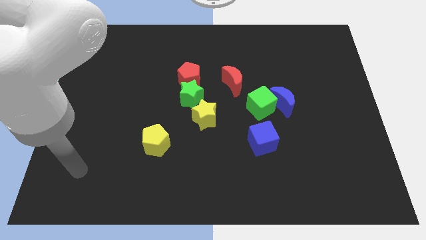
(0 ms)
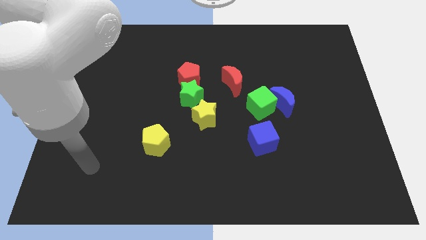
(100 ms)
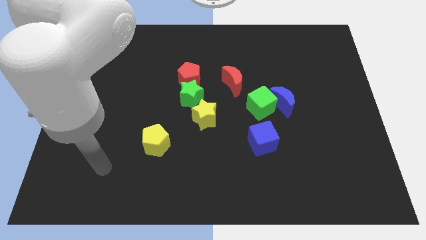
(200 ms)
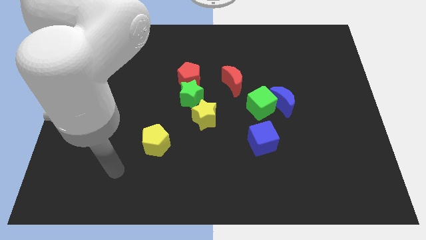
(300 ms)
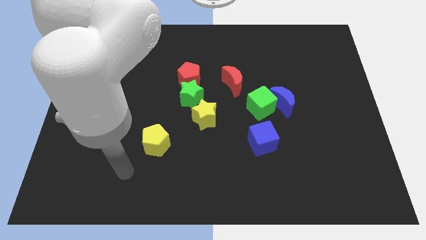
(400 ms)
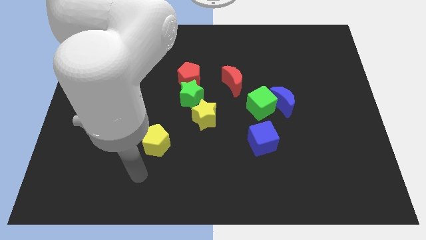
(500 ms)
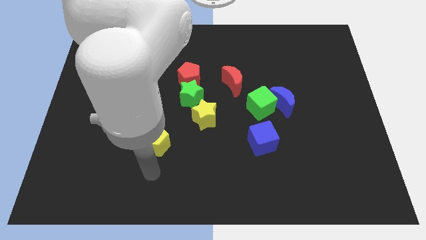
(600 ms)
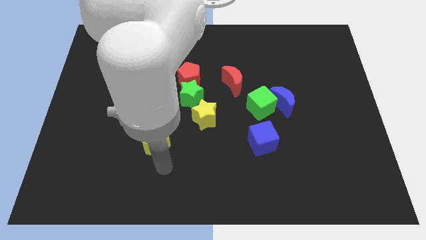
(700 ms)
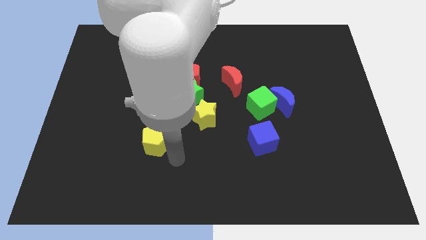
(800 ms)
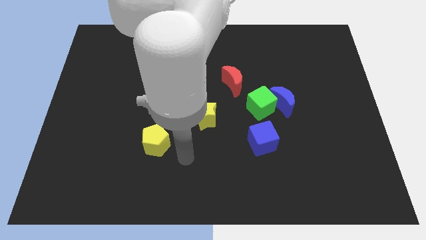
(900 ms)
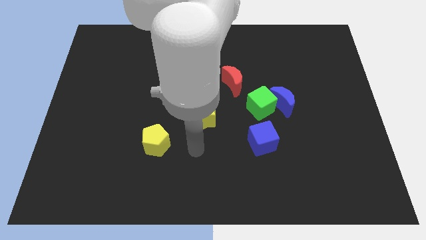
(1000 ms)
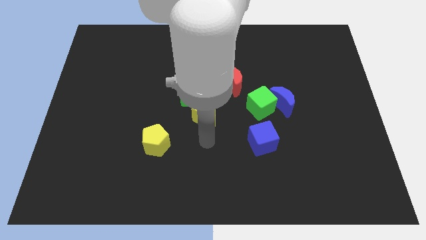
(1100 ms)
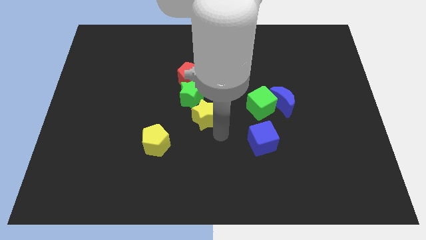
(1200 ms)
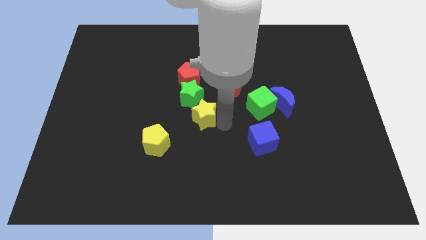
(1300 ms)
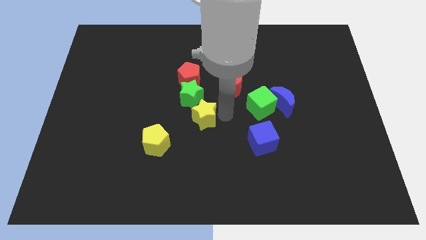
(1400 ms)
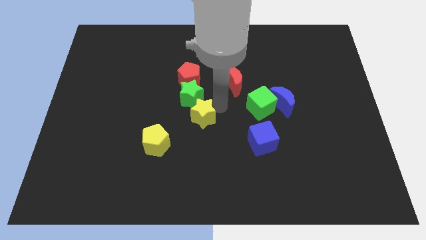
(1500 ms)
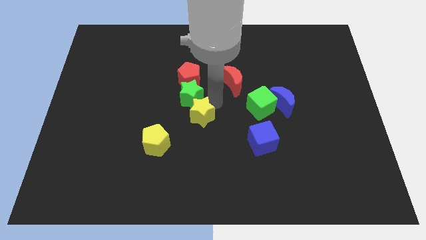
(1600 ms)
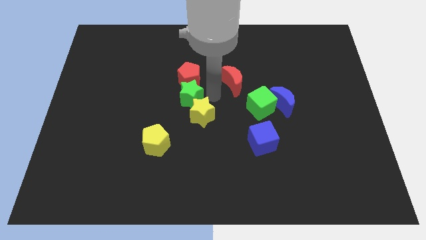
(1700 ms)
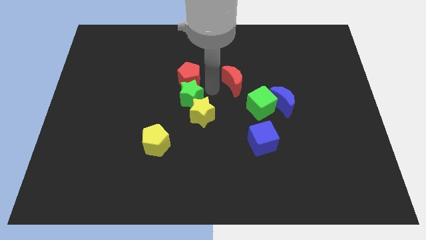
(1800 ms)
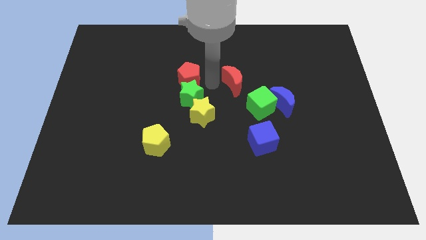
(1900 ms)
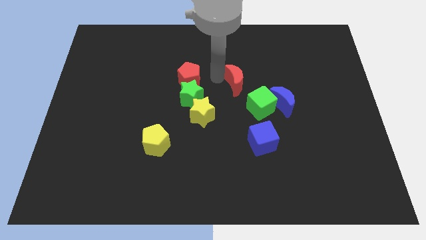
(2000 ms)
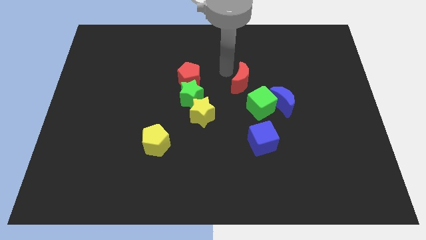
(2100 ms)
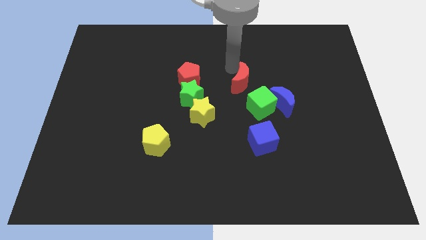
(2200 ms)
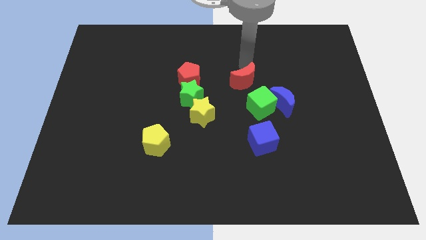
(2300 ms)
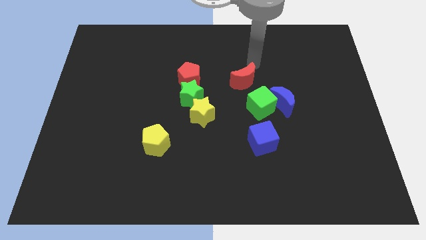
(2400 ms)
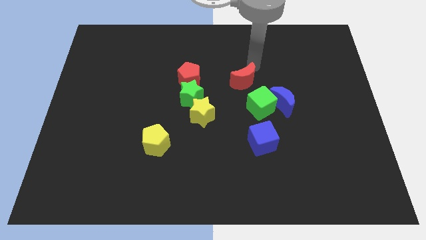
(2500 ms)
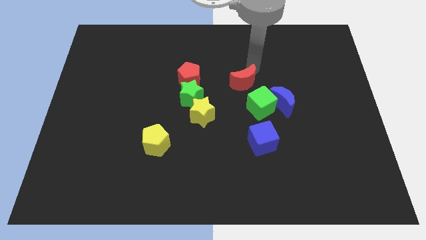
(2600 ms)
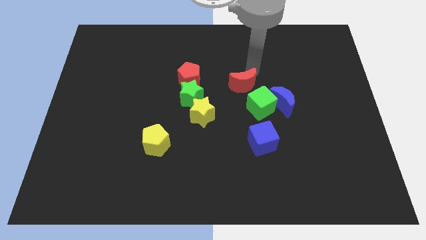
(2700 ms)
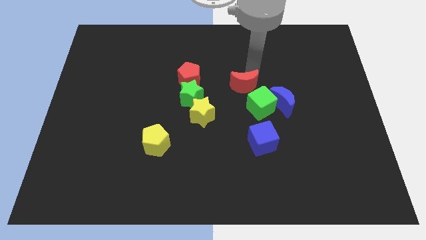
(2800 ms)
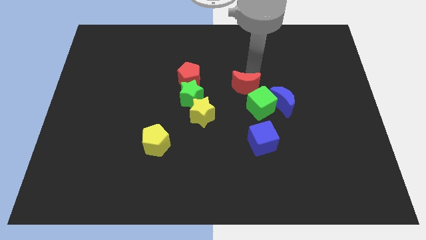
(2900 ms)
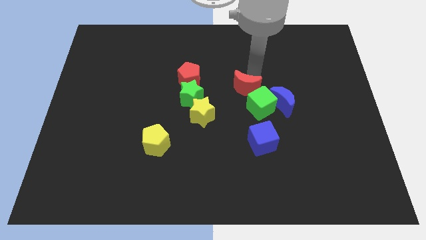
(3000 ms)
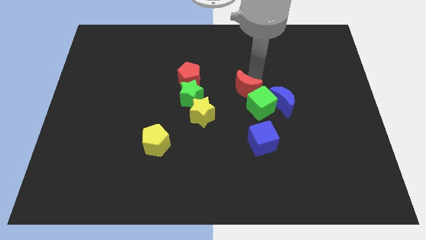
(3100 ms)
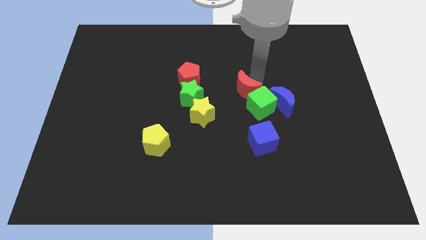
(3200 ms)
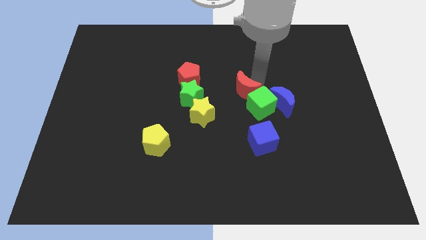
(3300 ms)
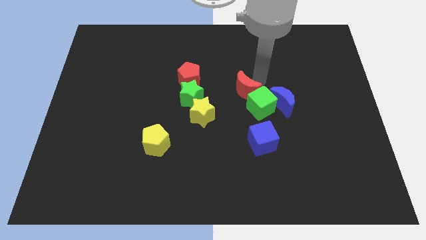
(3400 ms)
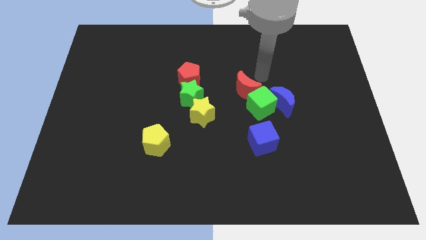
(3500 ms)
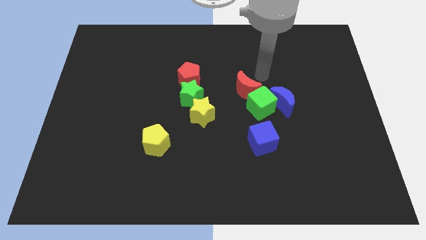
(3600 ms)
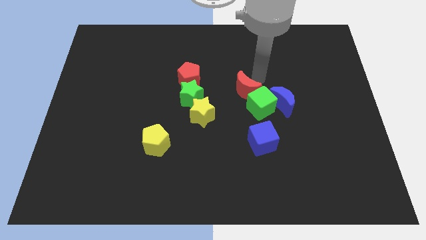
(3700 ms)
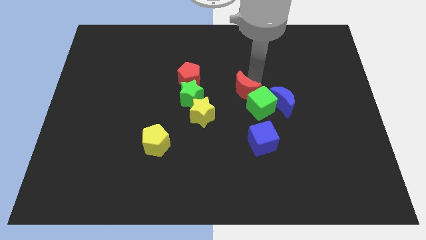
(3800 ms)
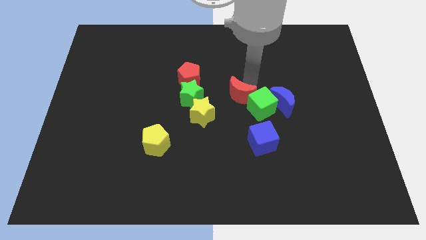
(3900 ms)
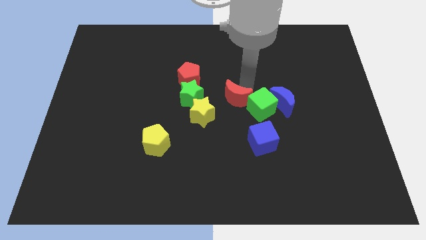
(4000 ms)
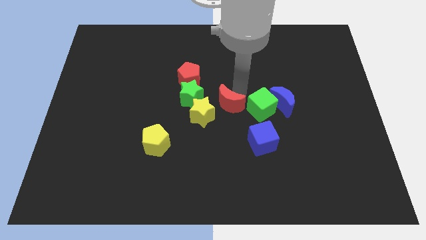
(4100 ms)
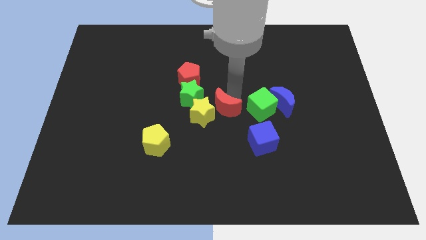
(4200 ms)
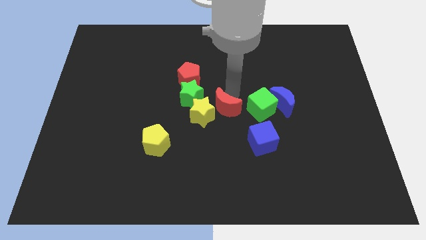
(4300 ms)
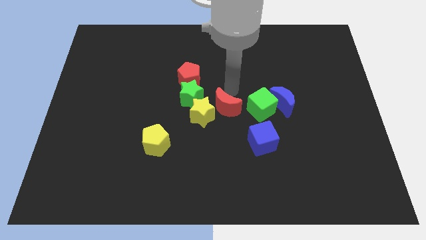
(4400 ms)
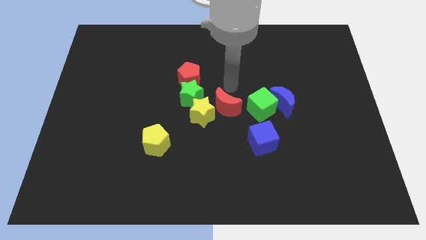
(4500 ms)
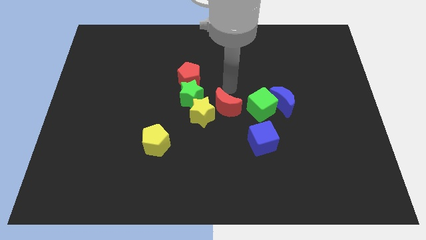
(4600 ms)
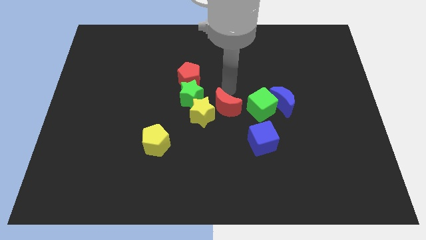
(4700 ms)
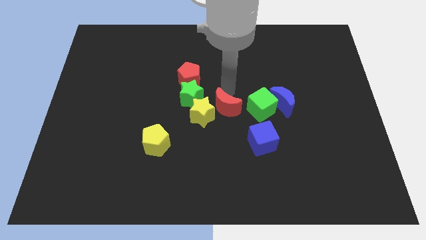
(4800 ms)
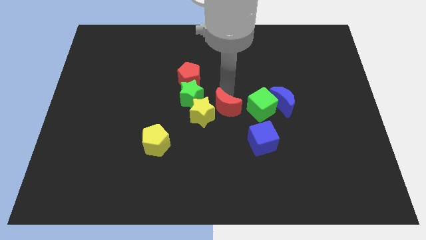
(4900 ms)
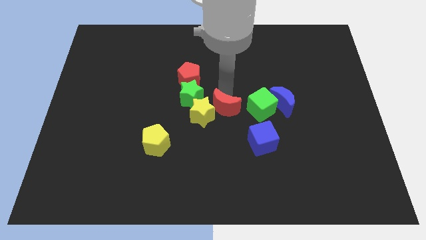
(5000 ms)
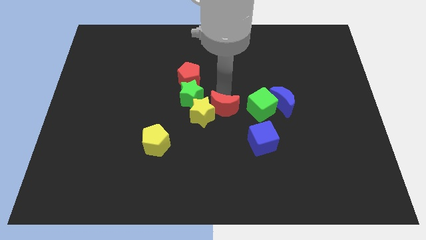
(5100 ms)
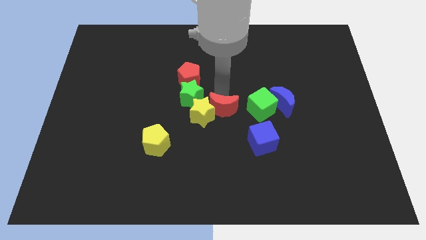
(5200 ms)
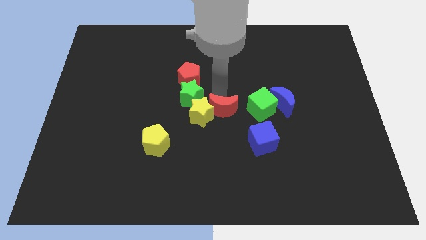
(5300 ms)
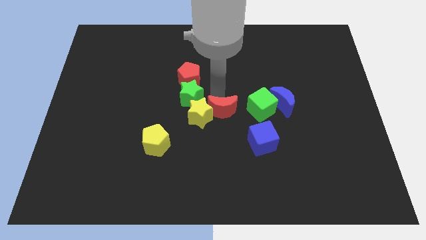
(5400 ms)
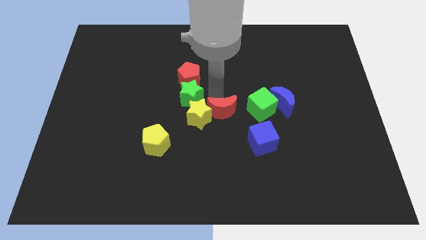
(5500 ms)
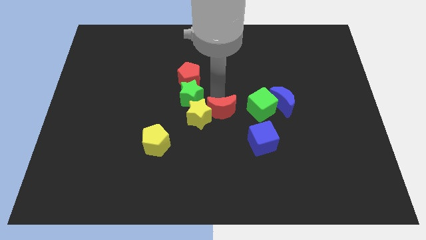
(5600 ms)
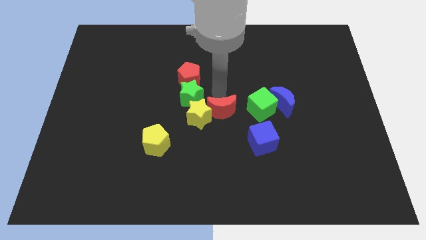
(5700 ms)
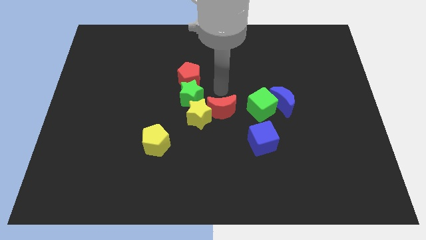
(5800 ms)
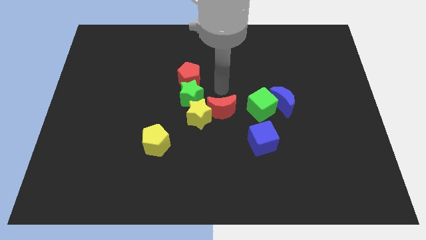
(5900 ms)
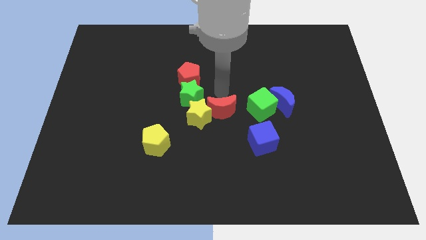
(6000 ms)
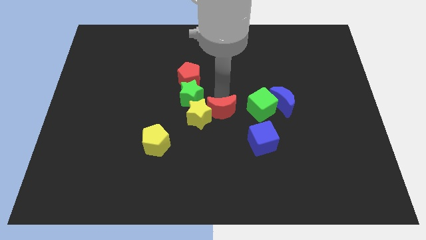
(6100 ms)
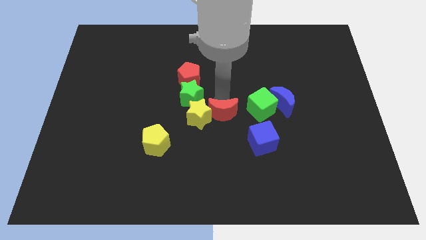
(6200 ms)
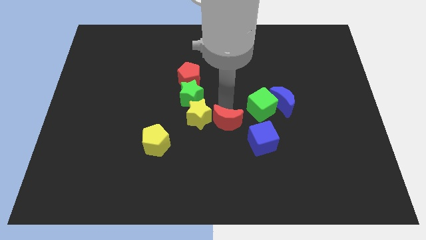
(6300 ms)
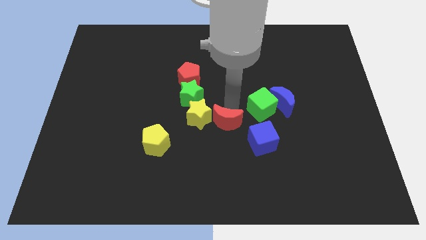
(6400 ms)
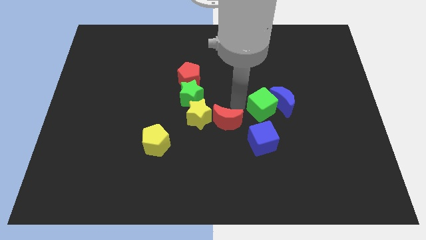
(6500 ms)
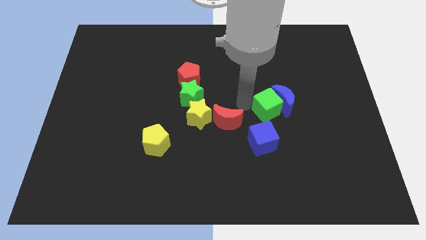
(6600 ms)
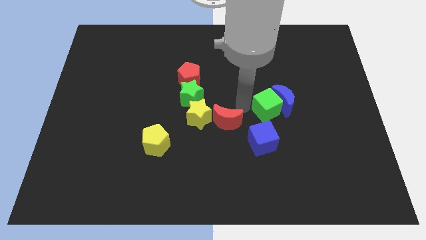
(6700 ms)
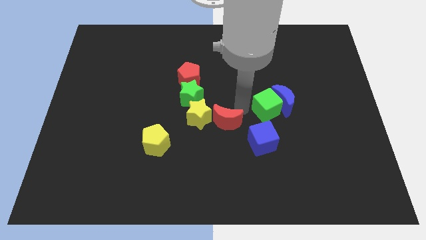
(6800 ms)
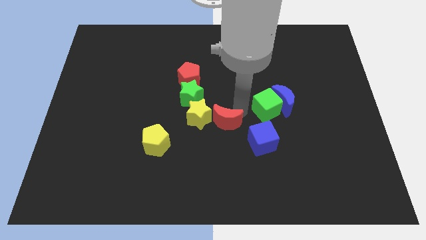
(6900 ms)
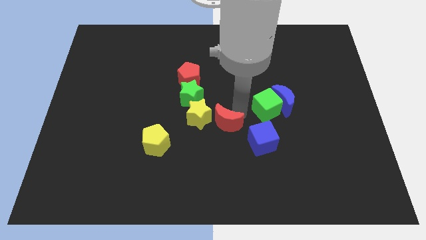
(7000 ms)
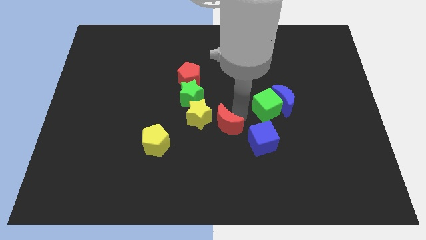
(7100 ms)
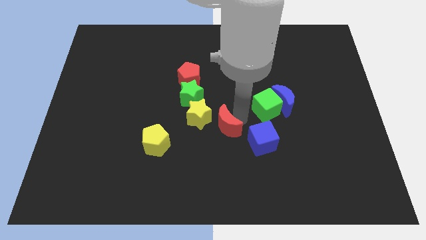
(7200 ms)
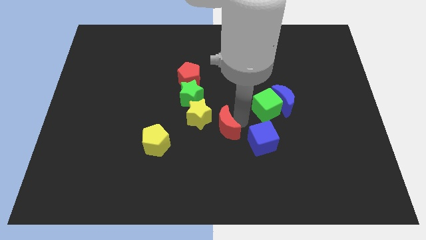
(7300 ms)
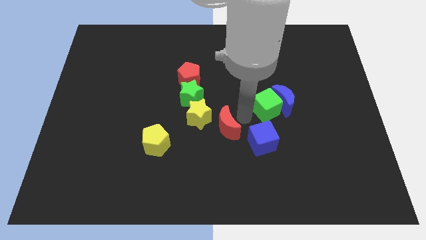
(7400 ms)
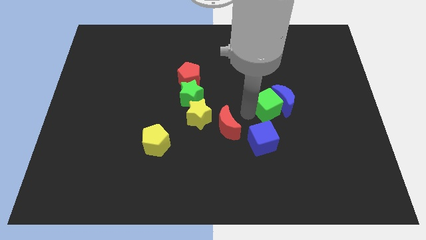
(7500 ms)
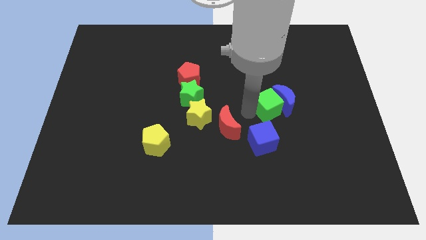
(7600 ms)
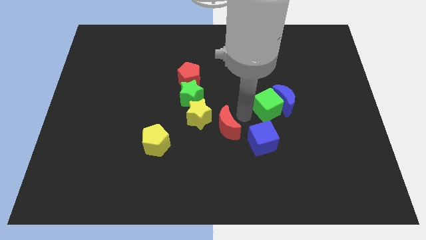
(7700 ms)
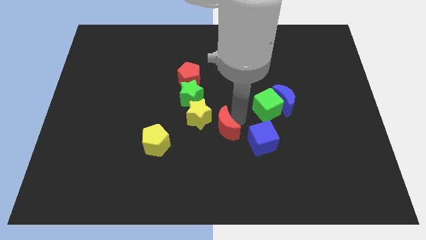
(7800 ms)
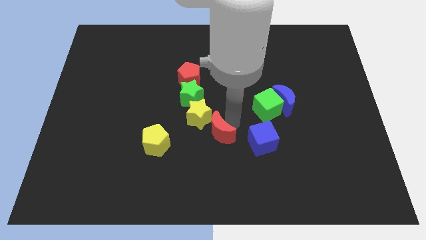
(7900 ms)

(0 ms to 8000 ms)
slide the red moon to the right side of the yellow pentagon
